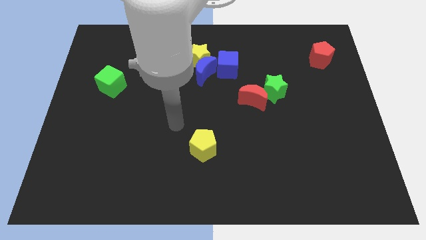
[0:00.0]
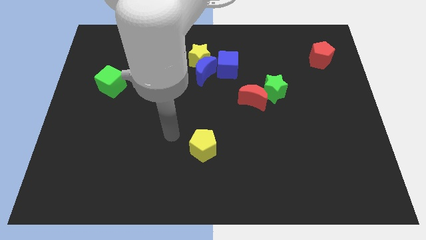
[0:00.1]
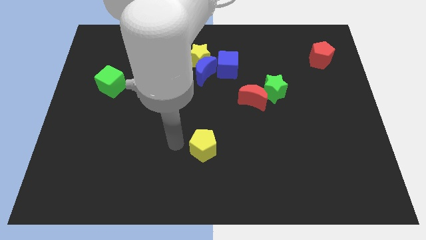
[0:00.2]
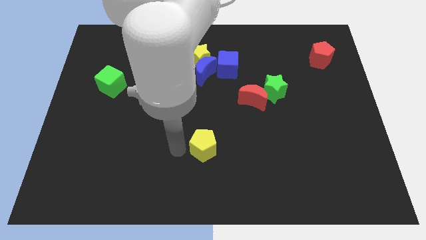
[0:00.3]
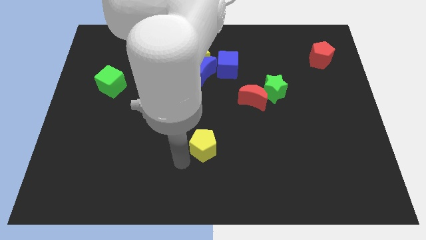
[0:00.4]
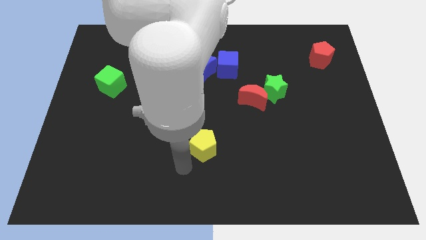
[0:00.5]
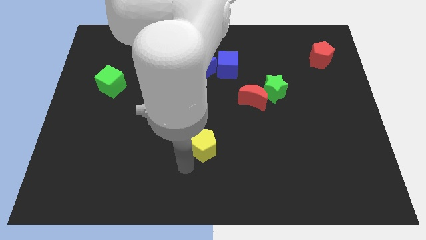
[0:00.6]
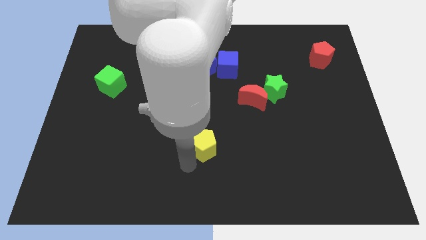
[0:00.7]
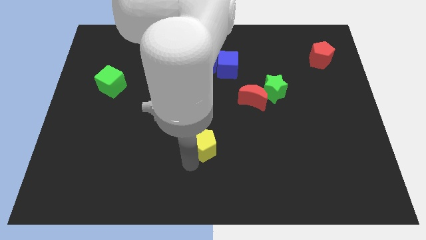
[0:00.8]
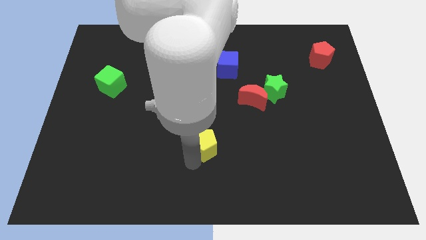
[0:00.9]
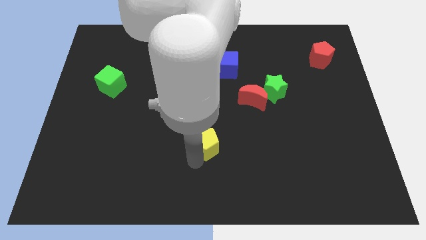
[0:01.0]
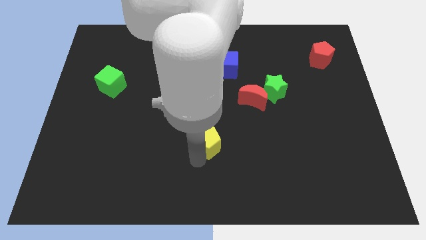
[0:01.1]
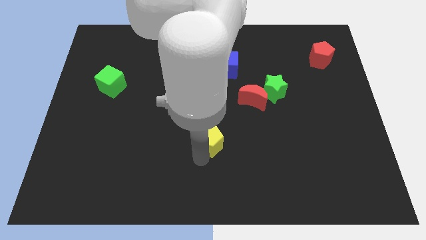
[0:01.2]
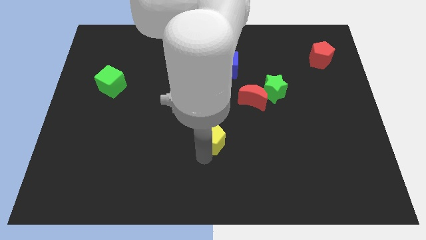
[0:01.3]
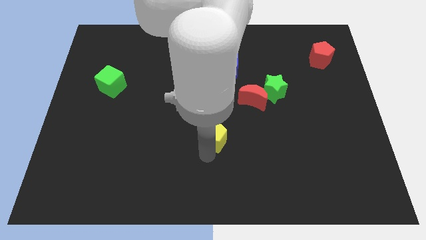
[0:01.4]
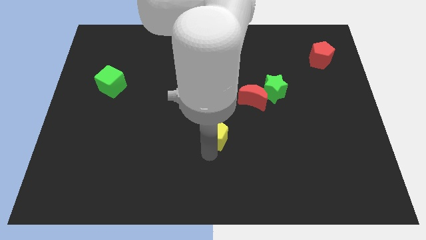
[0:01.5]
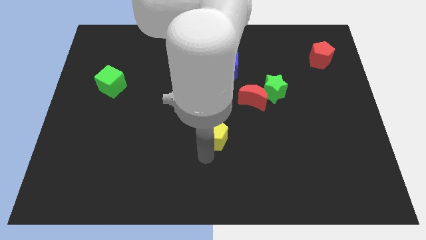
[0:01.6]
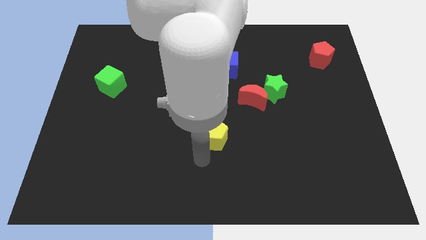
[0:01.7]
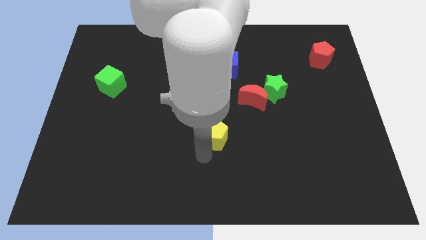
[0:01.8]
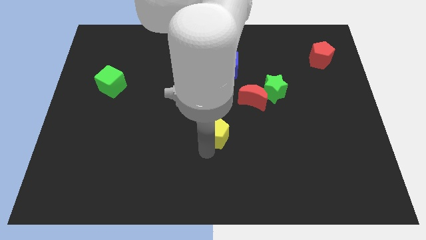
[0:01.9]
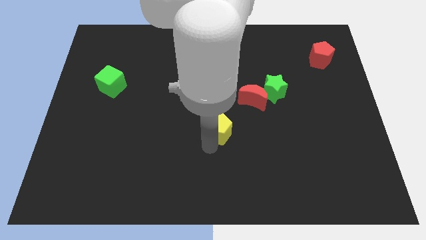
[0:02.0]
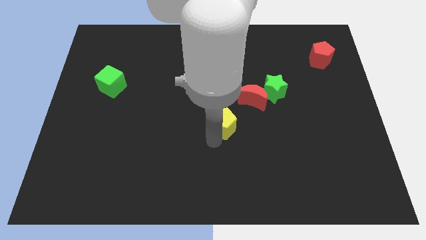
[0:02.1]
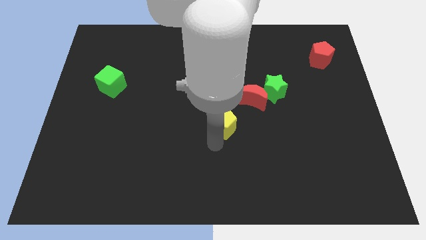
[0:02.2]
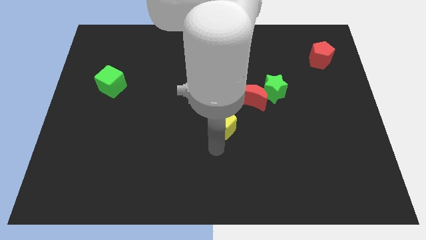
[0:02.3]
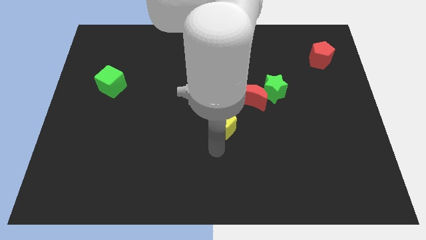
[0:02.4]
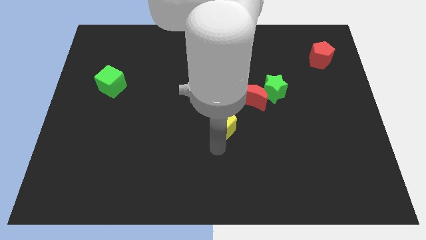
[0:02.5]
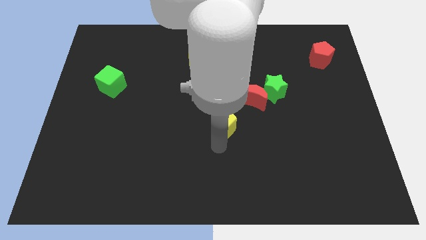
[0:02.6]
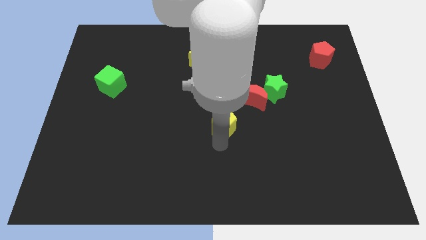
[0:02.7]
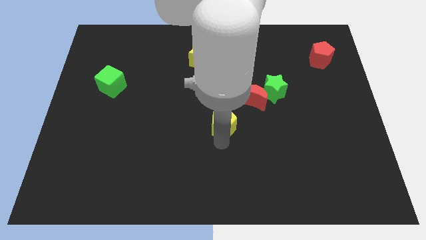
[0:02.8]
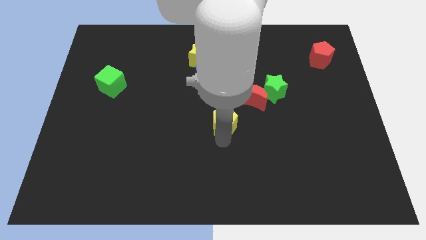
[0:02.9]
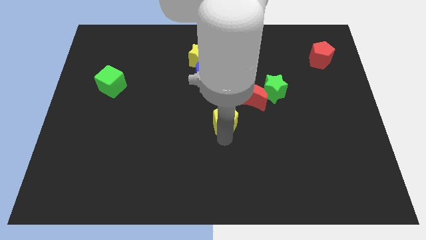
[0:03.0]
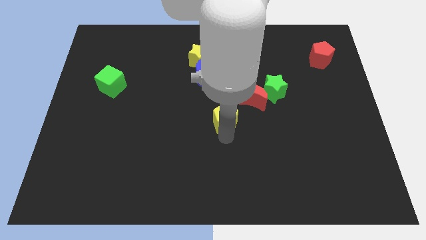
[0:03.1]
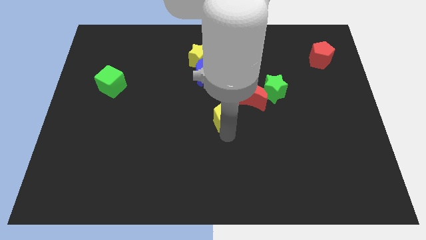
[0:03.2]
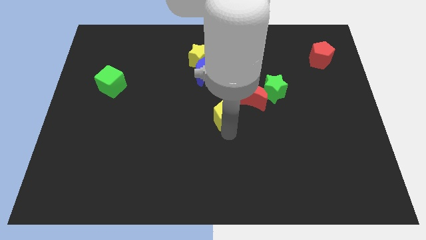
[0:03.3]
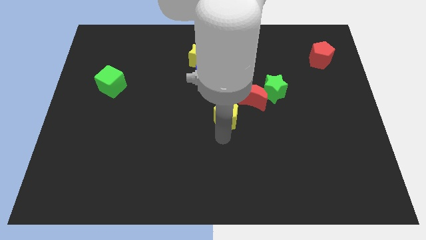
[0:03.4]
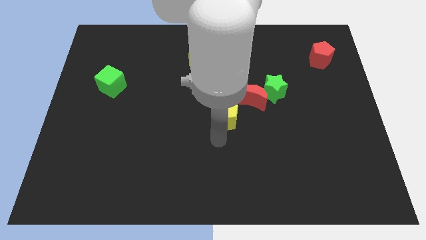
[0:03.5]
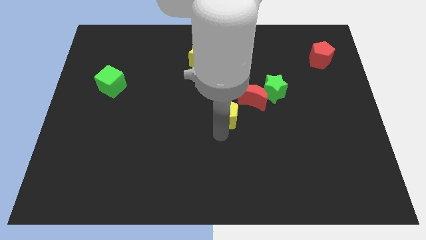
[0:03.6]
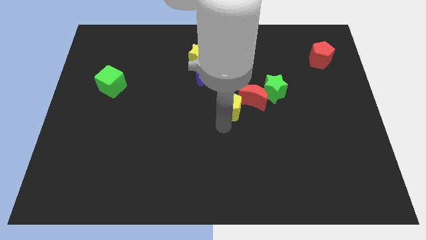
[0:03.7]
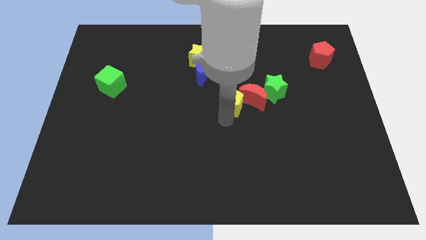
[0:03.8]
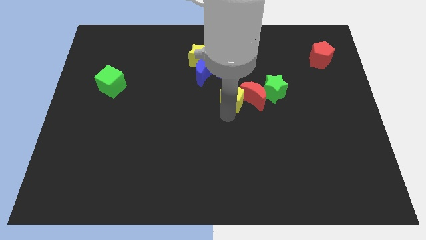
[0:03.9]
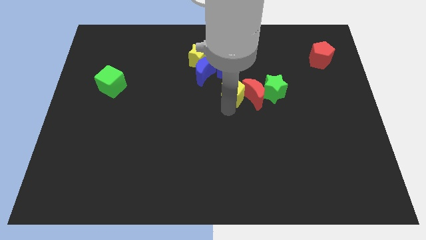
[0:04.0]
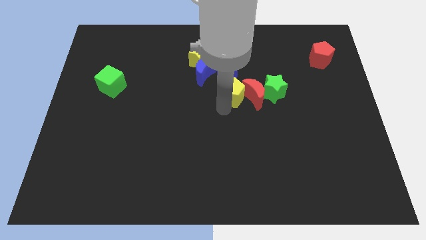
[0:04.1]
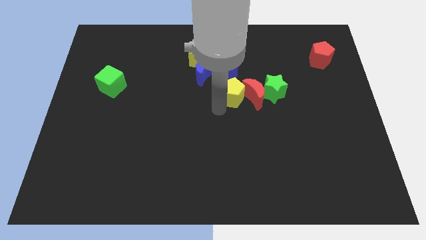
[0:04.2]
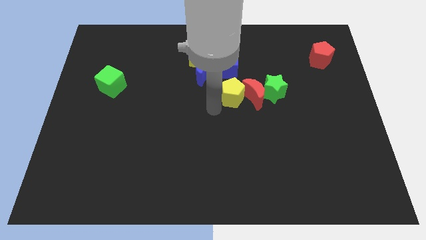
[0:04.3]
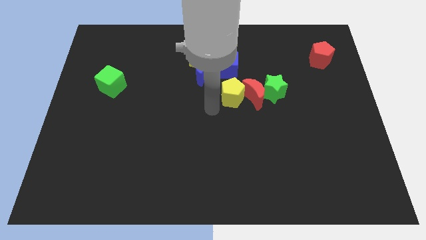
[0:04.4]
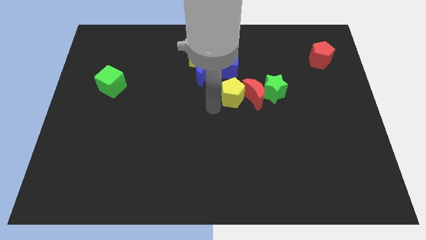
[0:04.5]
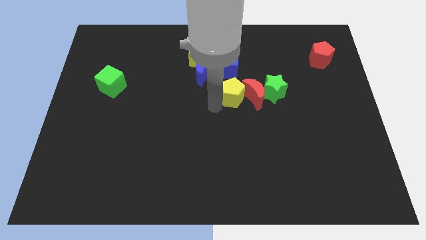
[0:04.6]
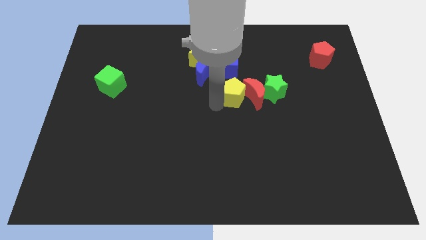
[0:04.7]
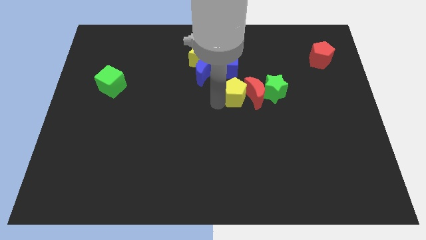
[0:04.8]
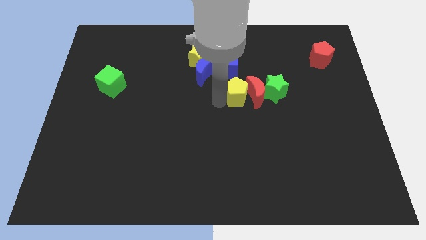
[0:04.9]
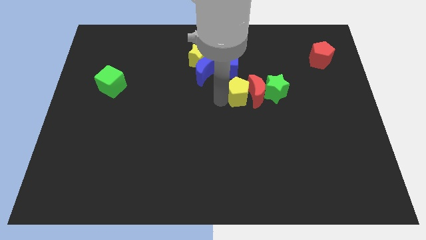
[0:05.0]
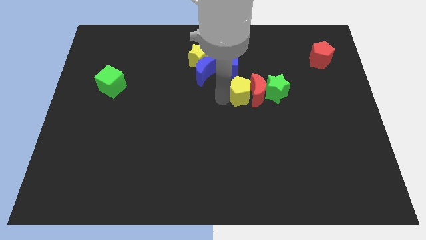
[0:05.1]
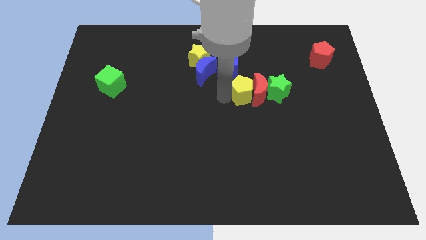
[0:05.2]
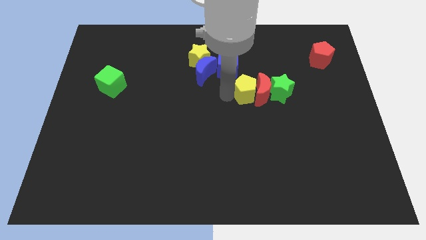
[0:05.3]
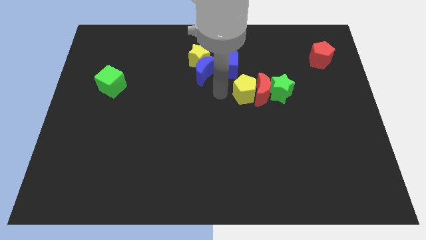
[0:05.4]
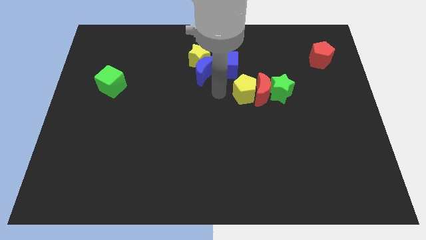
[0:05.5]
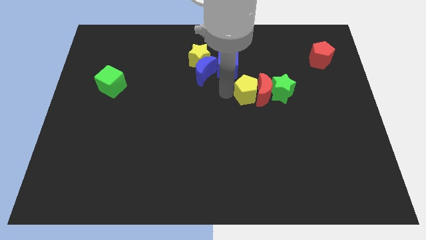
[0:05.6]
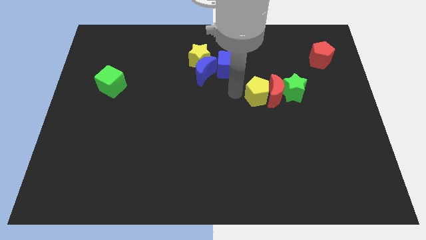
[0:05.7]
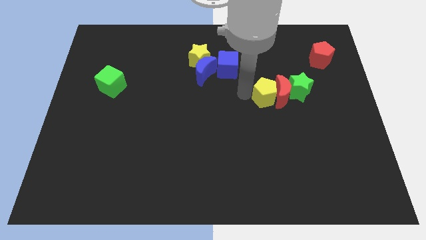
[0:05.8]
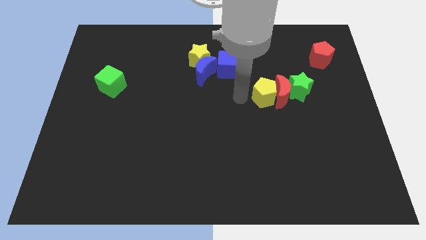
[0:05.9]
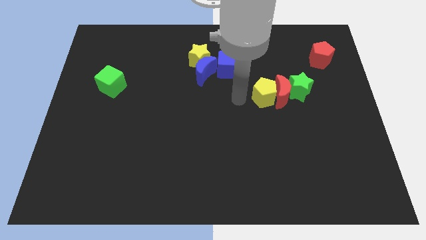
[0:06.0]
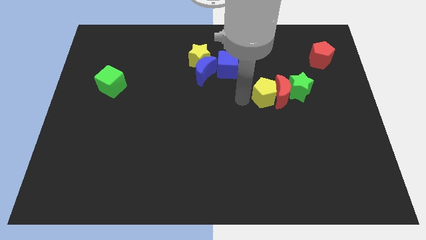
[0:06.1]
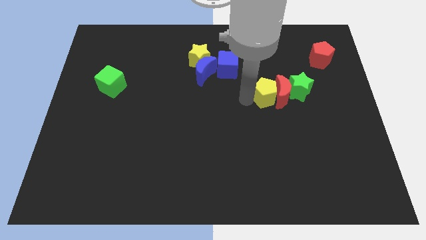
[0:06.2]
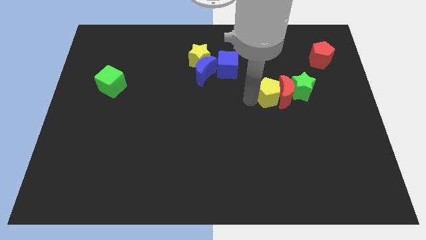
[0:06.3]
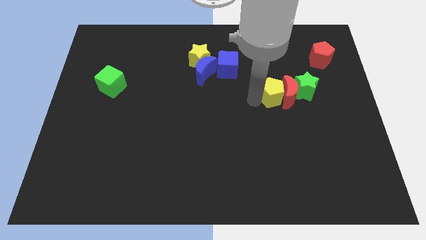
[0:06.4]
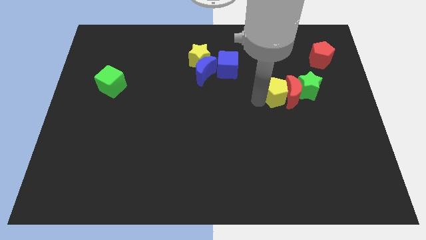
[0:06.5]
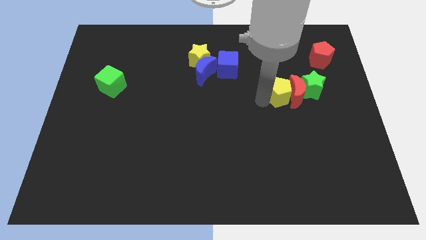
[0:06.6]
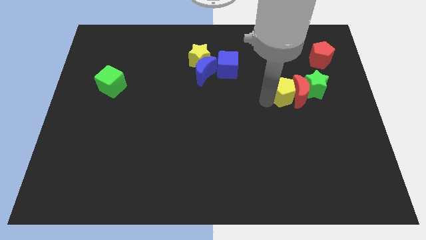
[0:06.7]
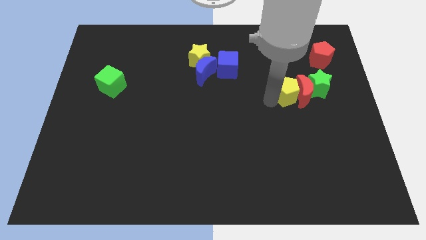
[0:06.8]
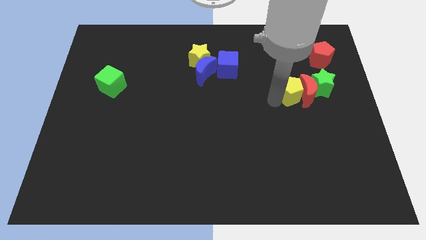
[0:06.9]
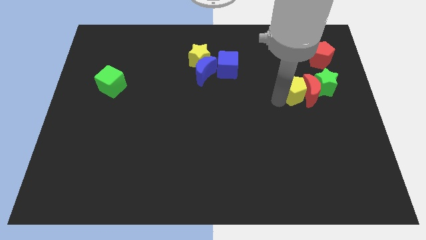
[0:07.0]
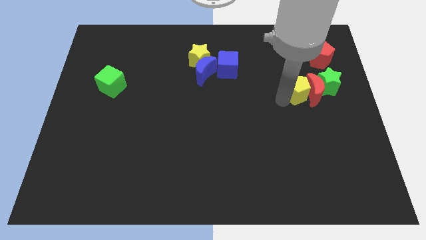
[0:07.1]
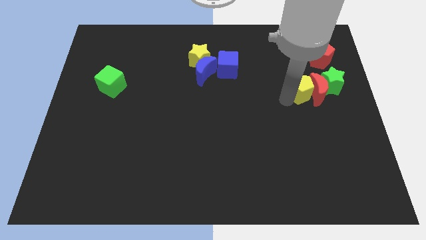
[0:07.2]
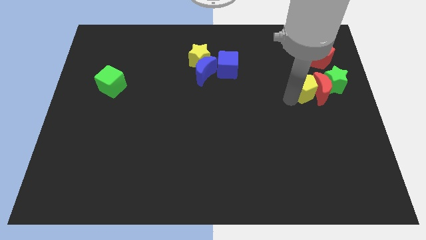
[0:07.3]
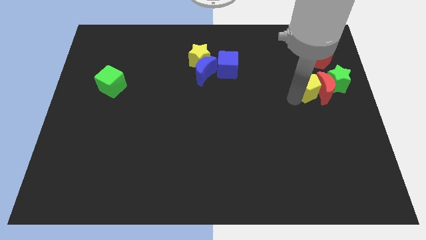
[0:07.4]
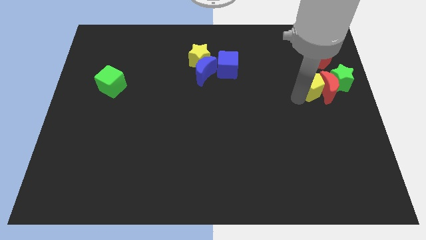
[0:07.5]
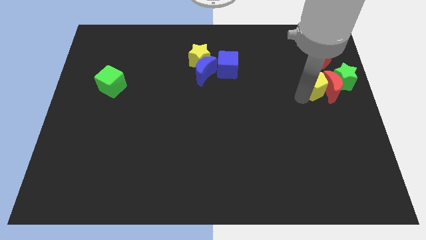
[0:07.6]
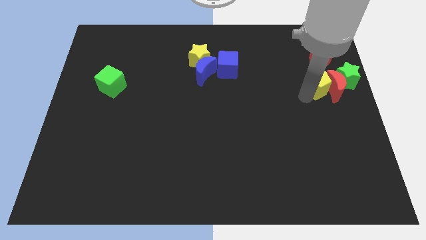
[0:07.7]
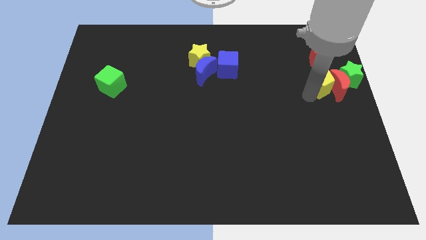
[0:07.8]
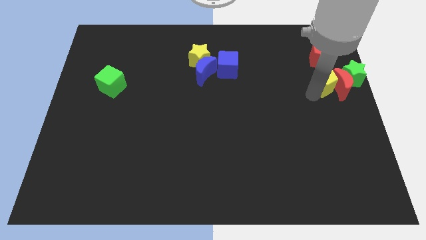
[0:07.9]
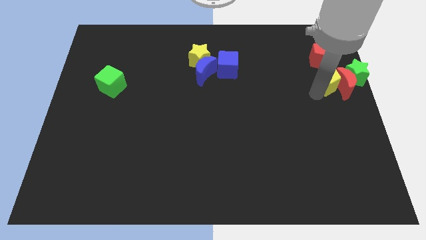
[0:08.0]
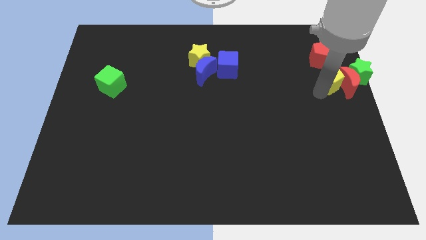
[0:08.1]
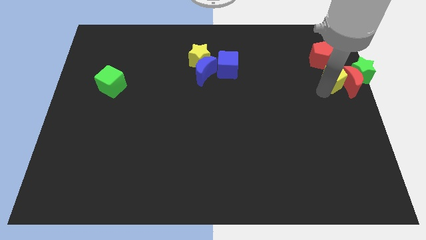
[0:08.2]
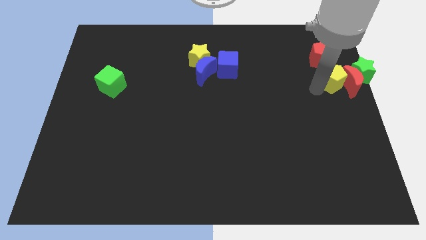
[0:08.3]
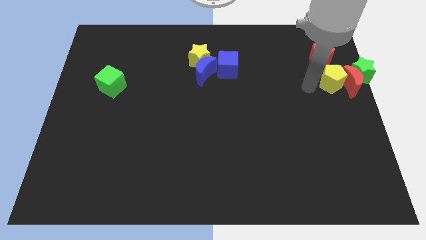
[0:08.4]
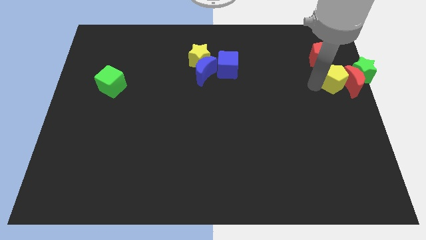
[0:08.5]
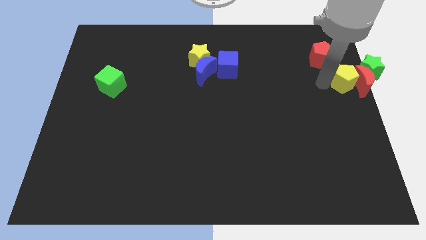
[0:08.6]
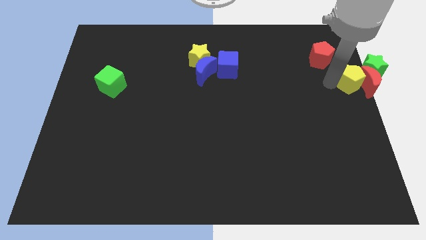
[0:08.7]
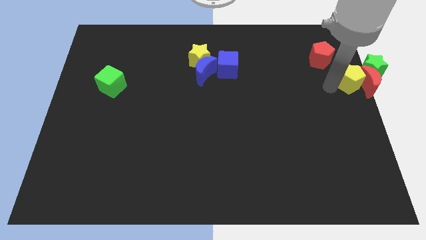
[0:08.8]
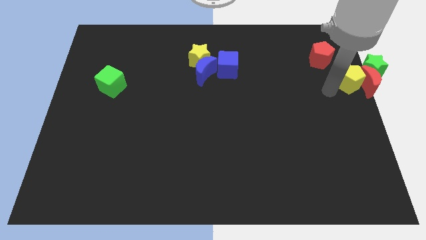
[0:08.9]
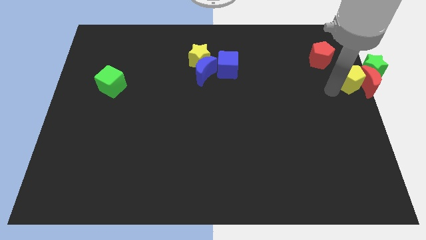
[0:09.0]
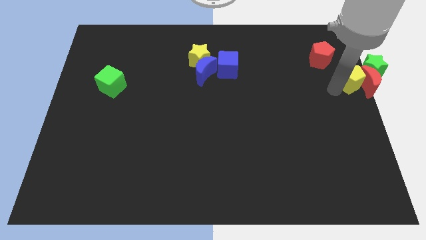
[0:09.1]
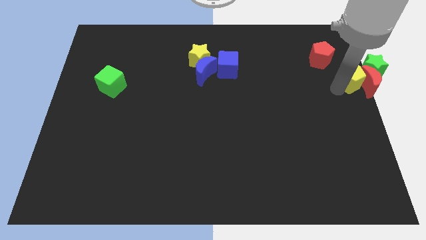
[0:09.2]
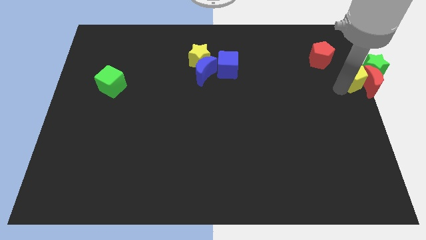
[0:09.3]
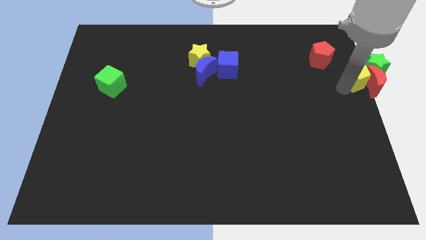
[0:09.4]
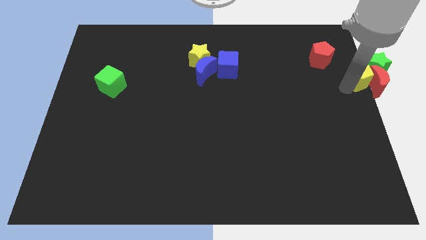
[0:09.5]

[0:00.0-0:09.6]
move the yellow pentagon next to the green star
